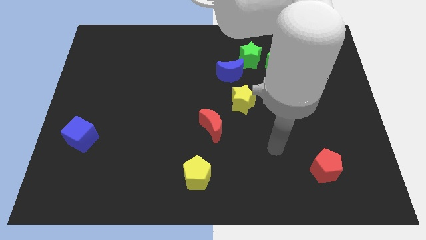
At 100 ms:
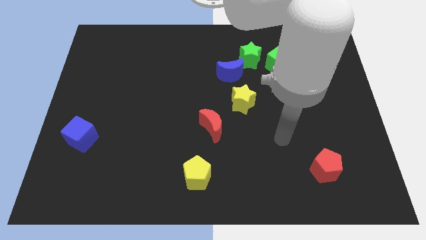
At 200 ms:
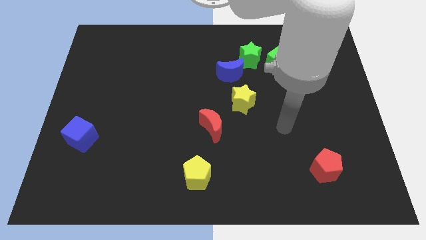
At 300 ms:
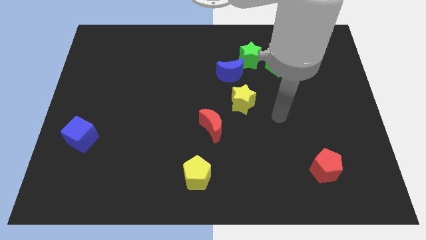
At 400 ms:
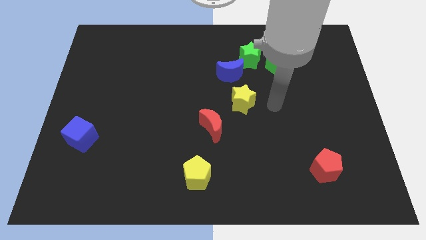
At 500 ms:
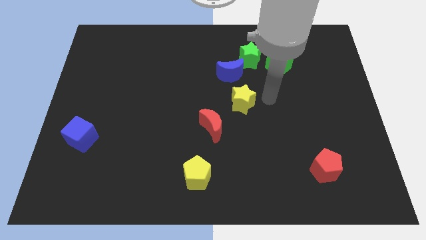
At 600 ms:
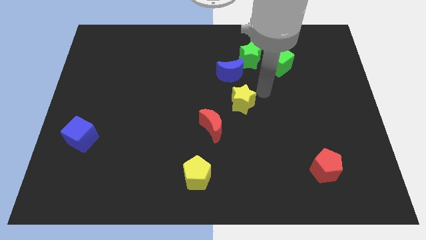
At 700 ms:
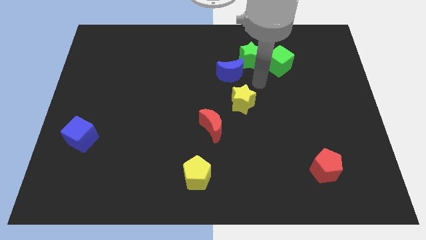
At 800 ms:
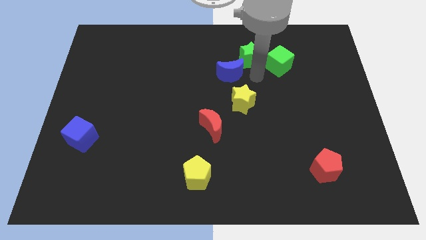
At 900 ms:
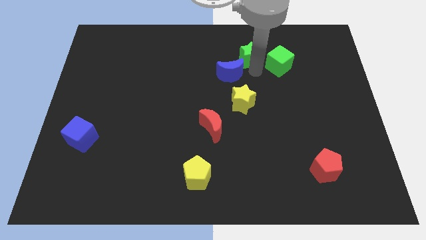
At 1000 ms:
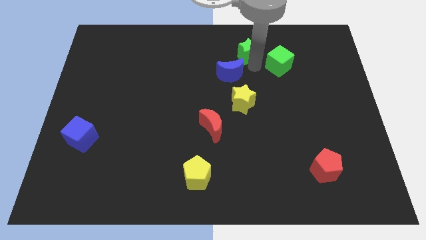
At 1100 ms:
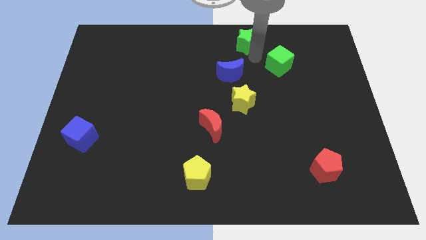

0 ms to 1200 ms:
separate the green cube from the green star

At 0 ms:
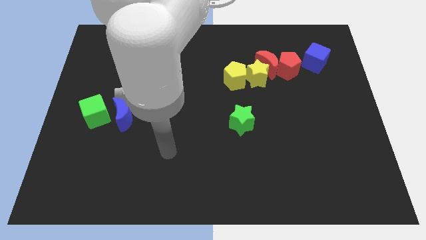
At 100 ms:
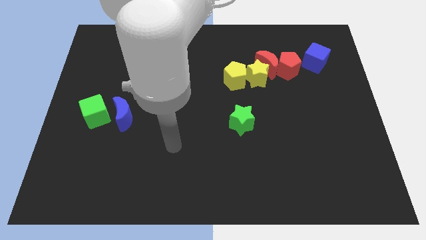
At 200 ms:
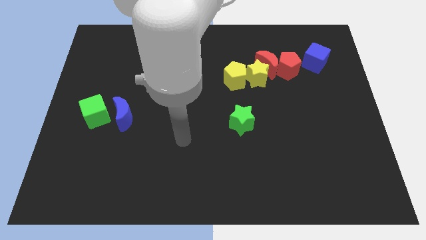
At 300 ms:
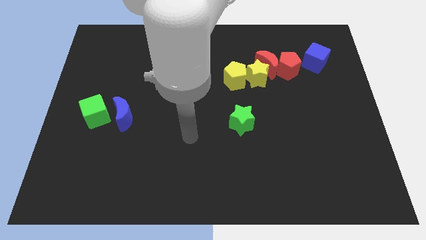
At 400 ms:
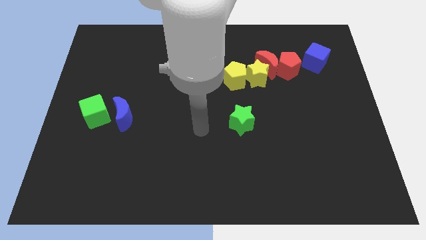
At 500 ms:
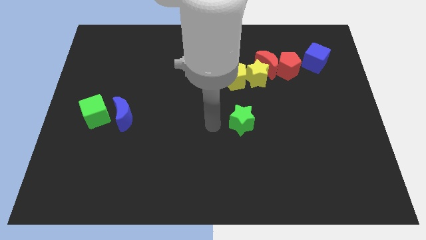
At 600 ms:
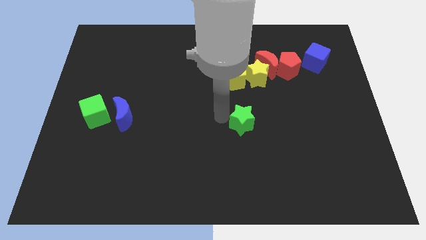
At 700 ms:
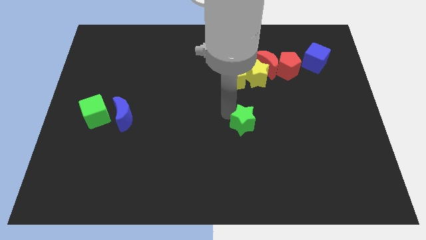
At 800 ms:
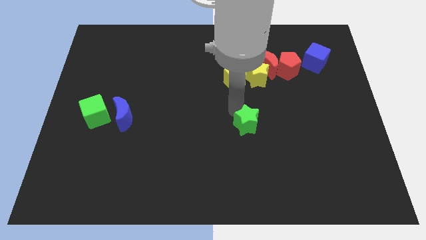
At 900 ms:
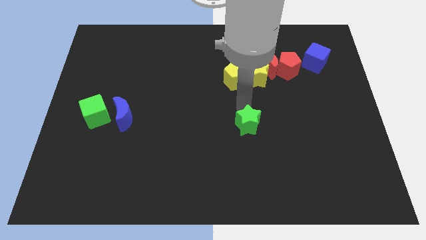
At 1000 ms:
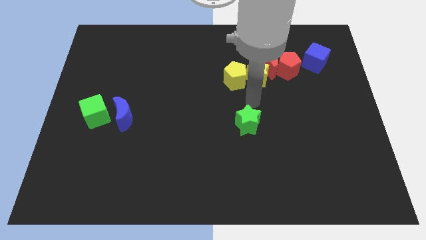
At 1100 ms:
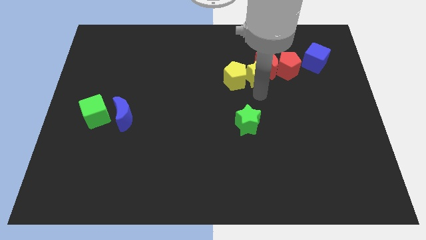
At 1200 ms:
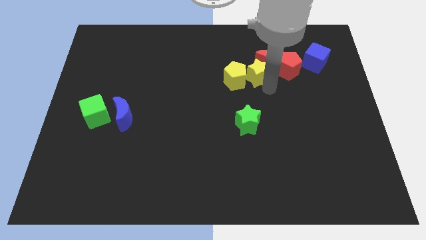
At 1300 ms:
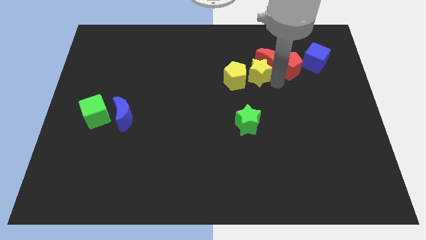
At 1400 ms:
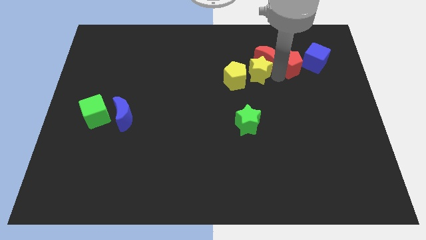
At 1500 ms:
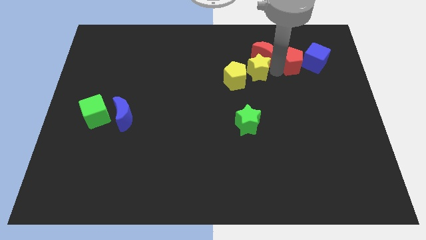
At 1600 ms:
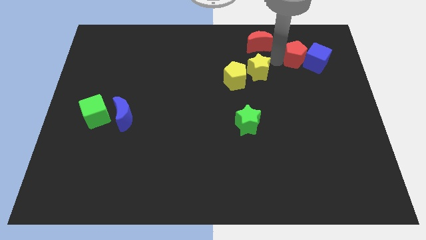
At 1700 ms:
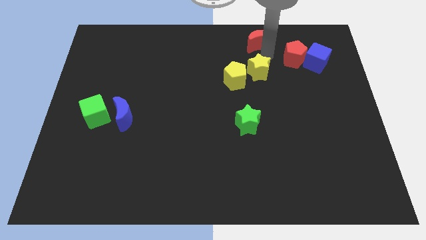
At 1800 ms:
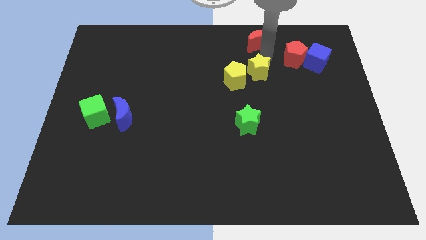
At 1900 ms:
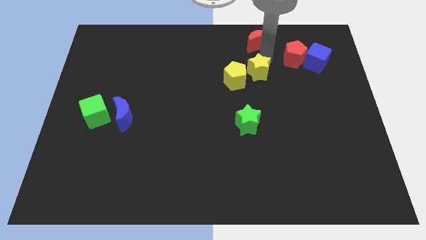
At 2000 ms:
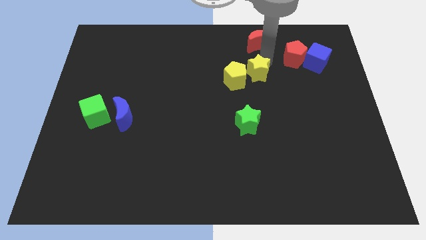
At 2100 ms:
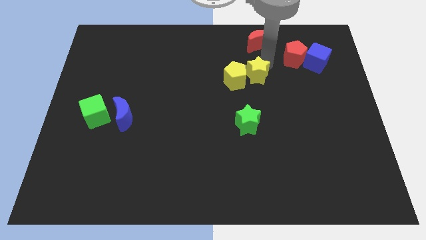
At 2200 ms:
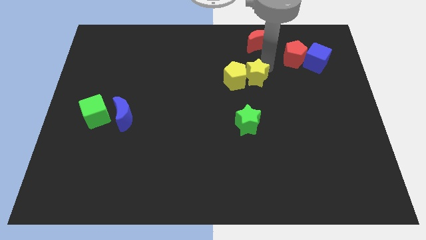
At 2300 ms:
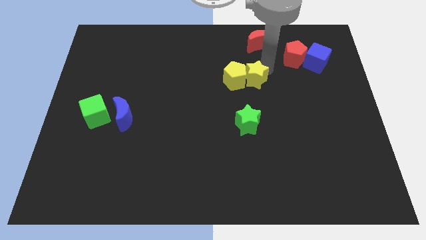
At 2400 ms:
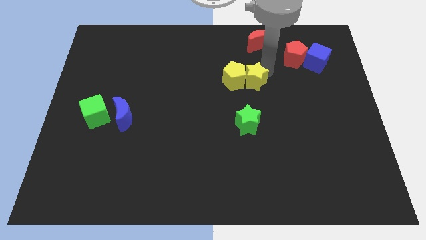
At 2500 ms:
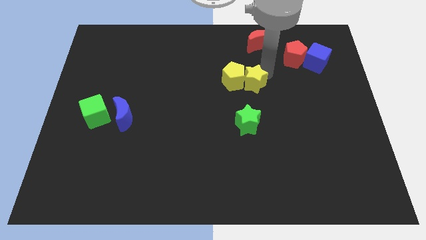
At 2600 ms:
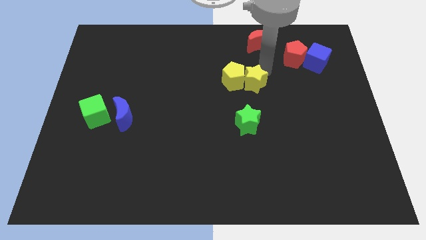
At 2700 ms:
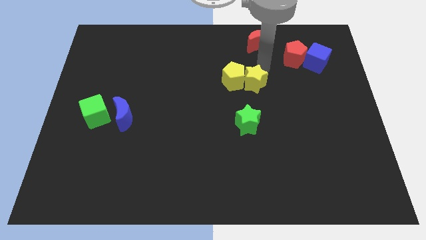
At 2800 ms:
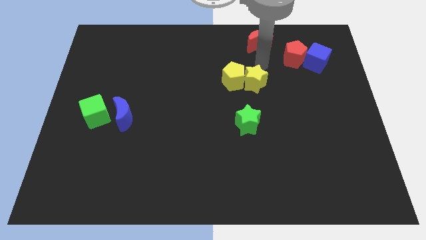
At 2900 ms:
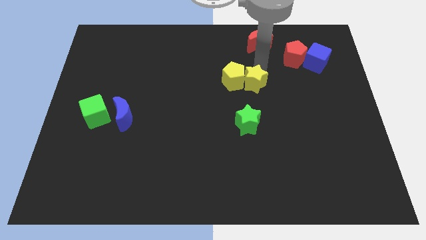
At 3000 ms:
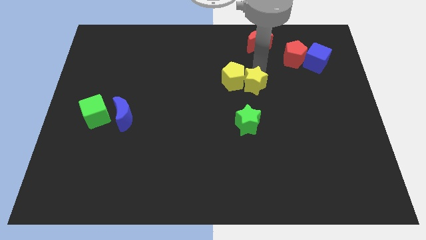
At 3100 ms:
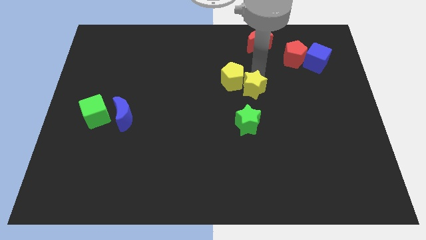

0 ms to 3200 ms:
move the yellow star away from the red moon, yellow pentagon, and red pentagon

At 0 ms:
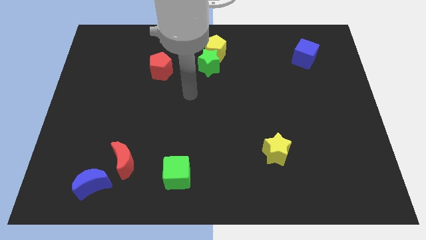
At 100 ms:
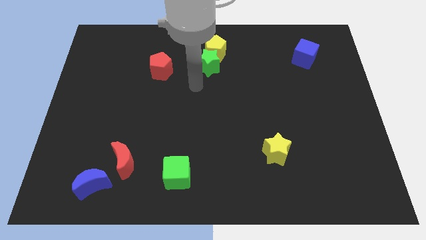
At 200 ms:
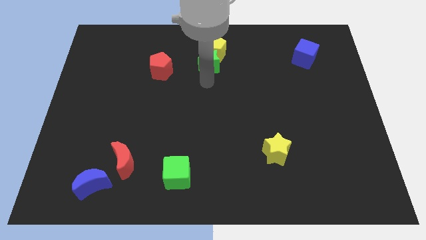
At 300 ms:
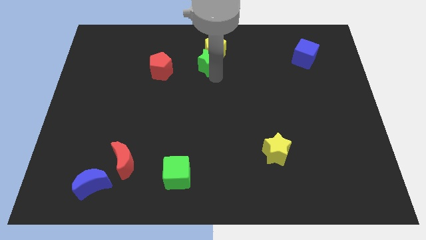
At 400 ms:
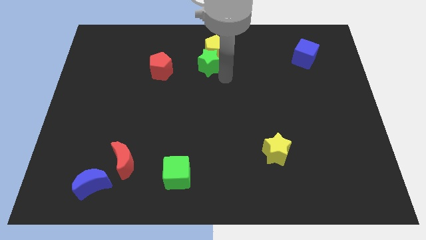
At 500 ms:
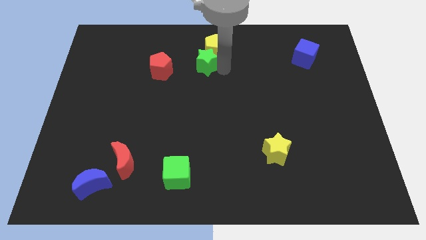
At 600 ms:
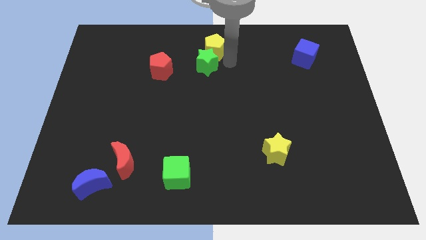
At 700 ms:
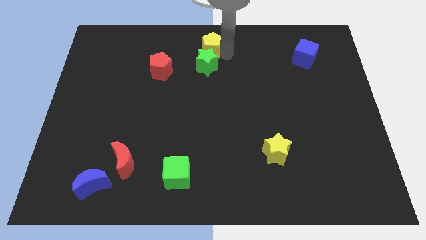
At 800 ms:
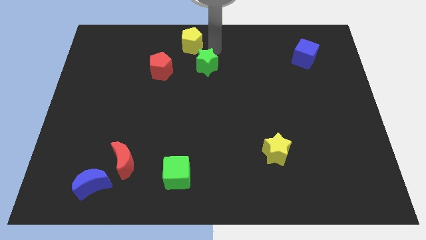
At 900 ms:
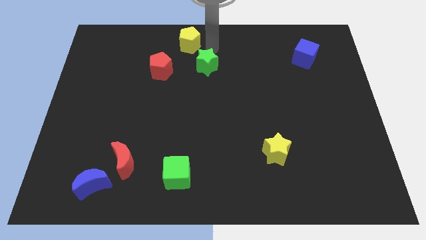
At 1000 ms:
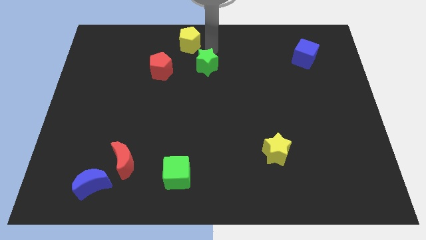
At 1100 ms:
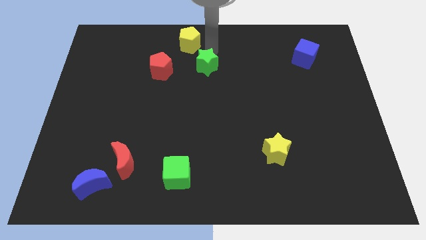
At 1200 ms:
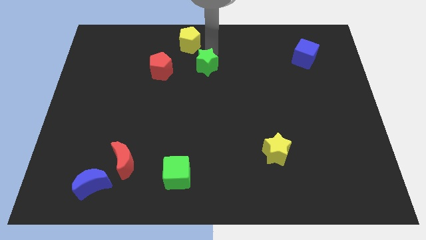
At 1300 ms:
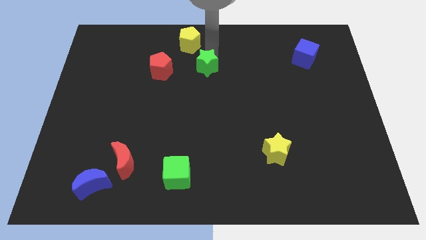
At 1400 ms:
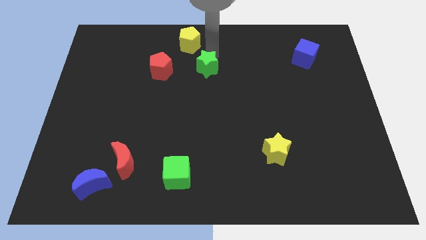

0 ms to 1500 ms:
separate the green star from the yellow pentagon

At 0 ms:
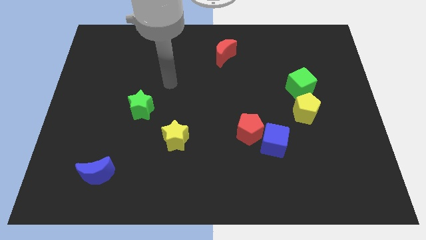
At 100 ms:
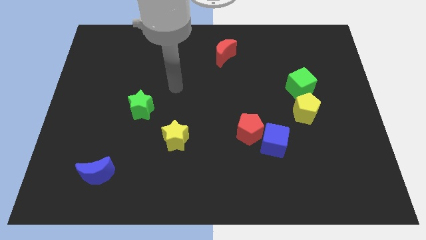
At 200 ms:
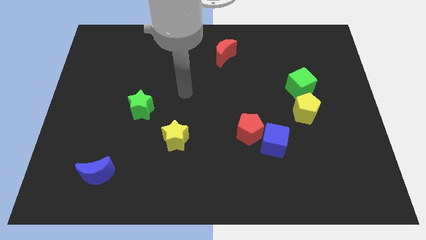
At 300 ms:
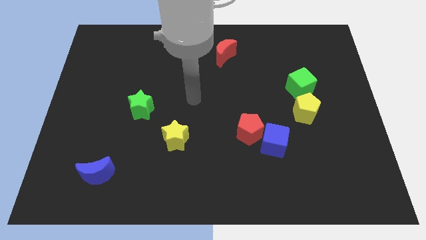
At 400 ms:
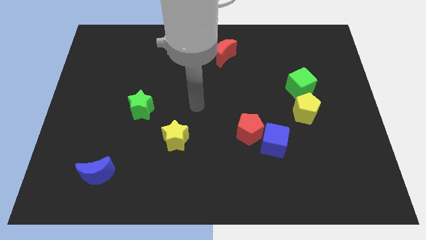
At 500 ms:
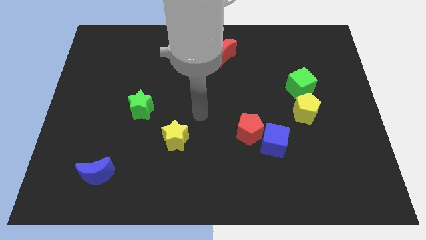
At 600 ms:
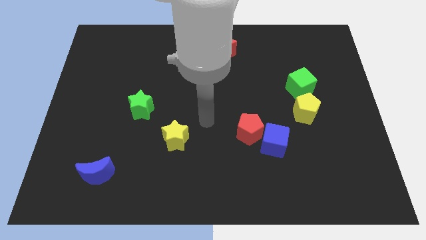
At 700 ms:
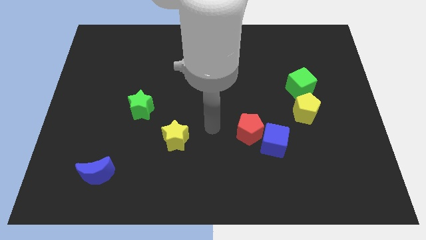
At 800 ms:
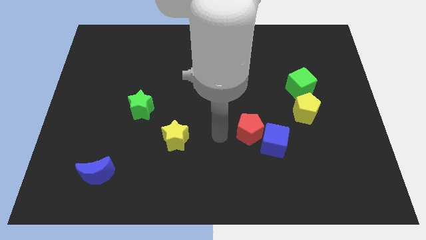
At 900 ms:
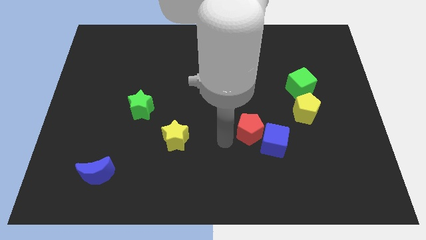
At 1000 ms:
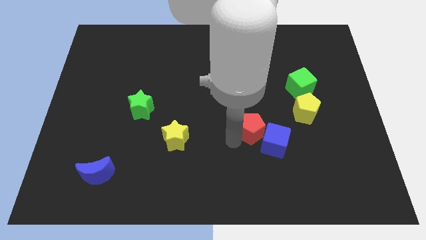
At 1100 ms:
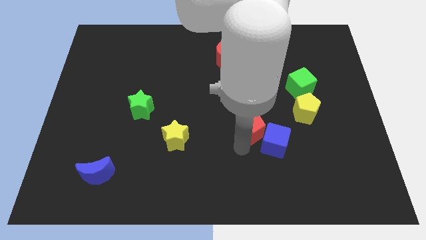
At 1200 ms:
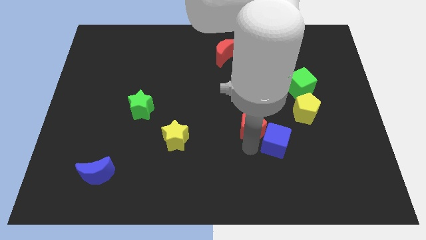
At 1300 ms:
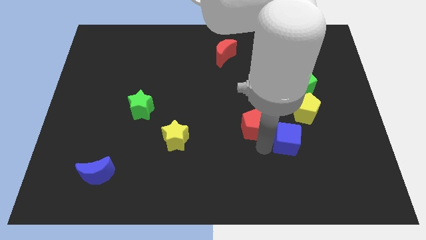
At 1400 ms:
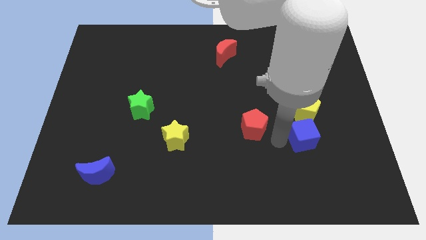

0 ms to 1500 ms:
move the red pentagon away from the blue cube

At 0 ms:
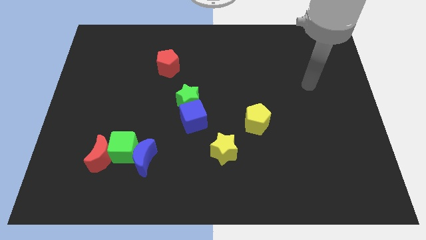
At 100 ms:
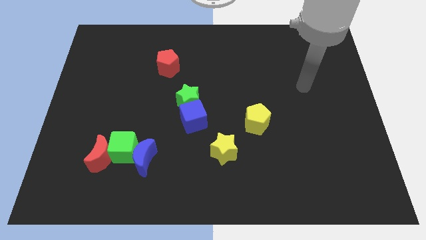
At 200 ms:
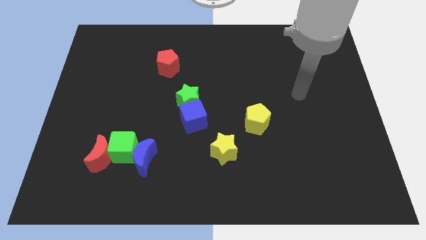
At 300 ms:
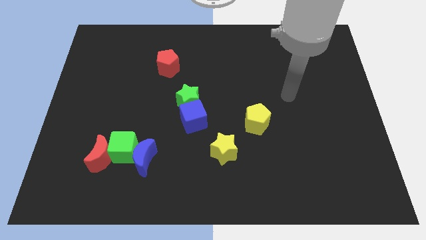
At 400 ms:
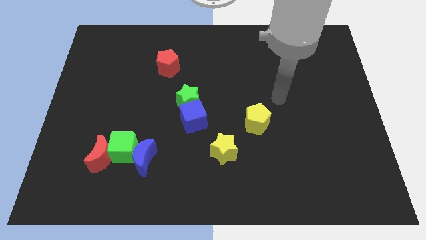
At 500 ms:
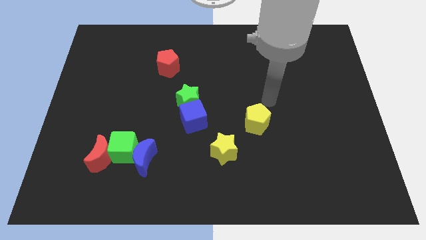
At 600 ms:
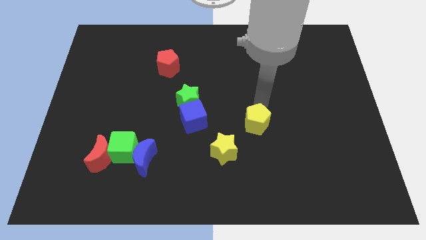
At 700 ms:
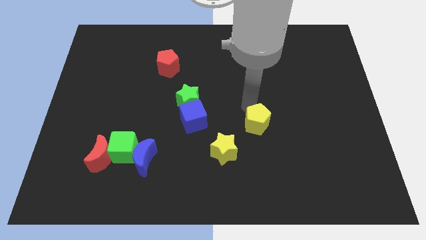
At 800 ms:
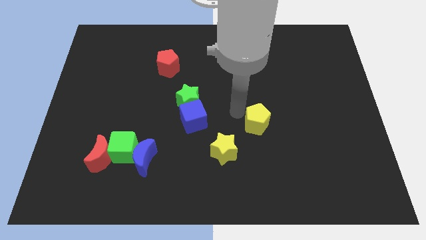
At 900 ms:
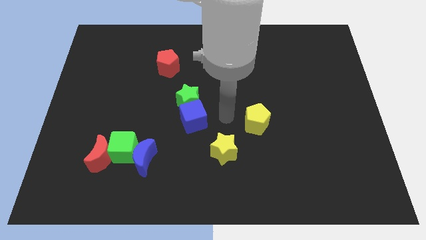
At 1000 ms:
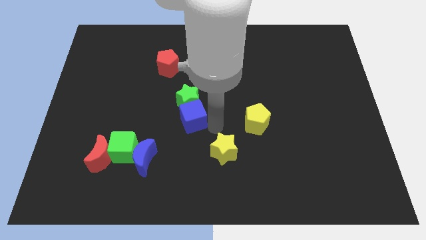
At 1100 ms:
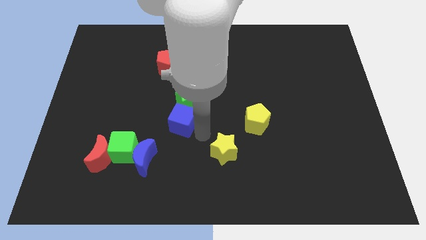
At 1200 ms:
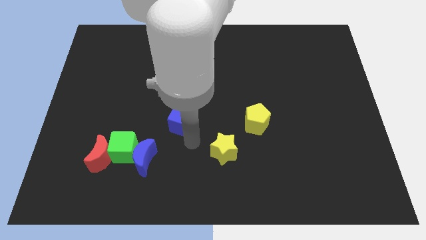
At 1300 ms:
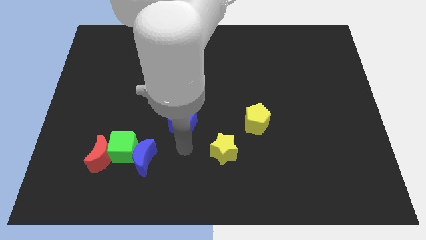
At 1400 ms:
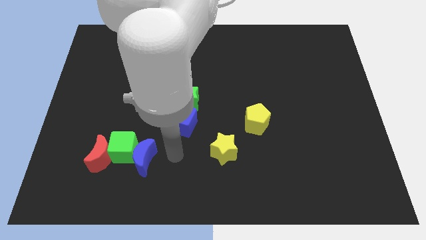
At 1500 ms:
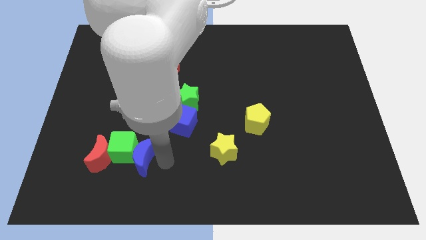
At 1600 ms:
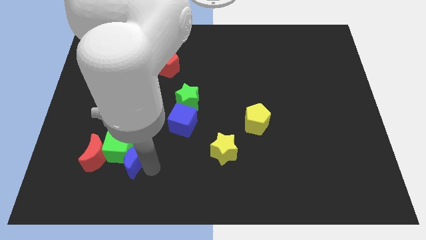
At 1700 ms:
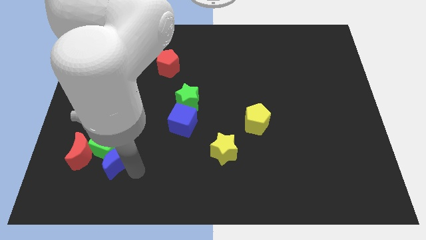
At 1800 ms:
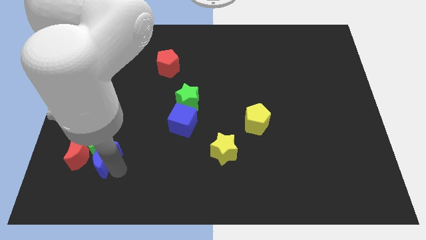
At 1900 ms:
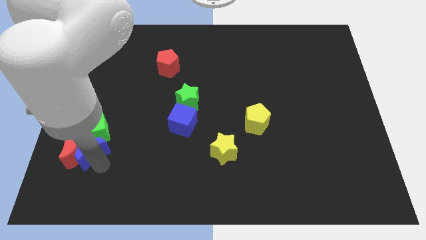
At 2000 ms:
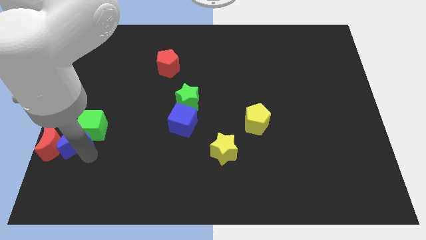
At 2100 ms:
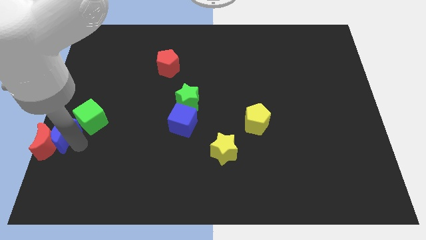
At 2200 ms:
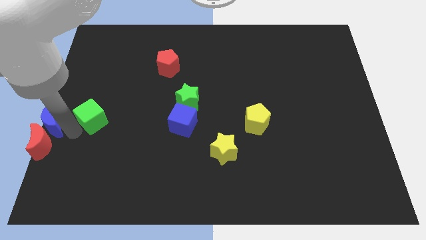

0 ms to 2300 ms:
separate the green cube from the red moon and blue moon
